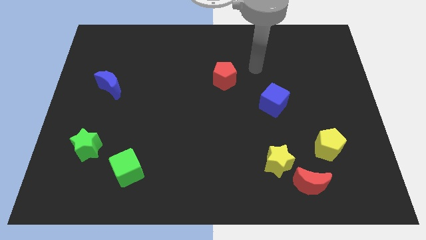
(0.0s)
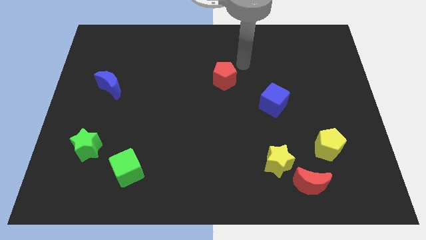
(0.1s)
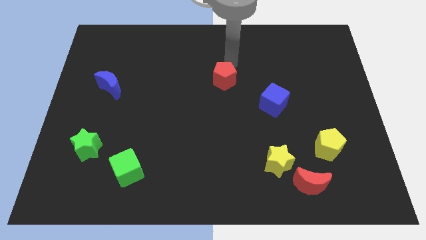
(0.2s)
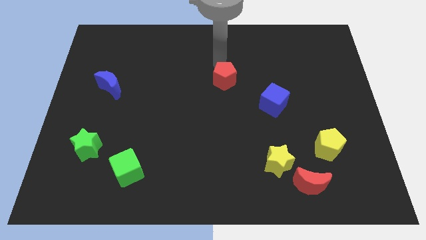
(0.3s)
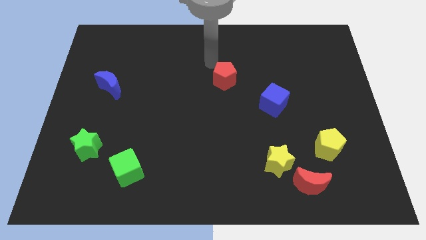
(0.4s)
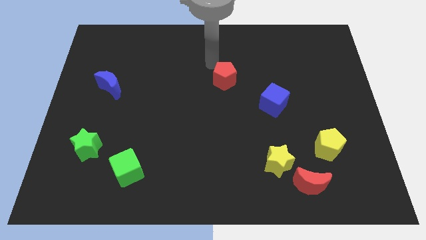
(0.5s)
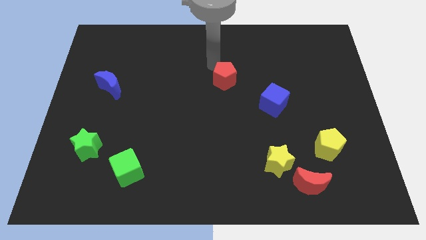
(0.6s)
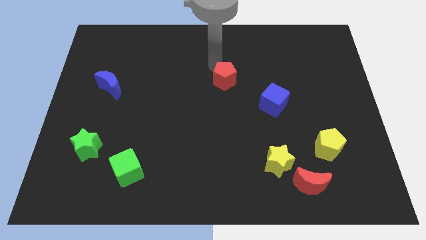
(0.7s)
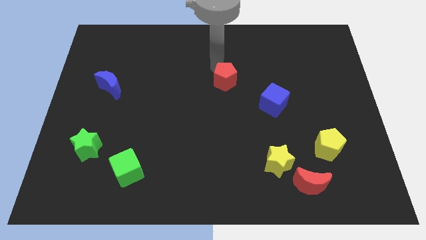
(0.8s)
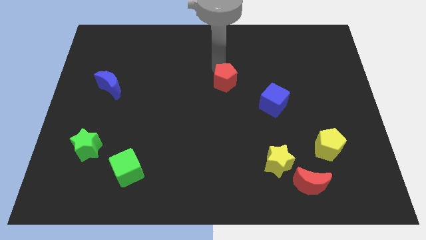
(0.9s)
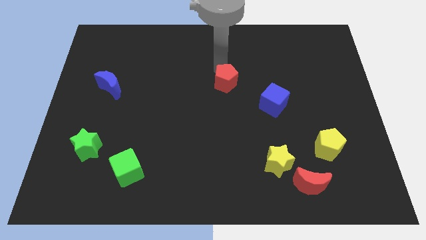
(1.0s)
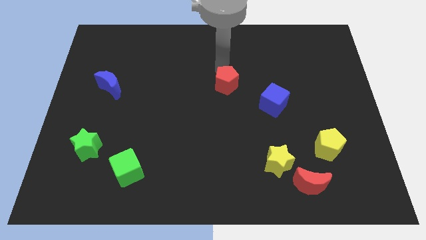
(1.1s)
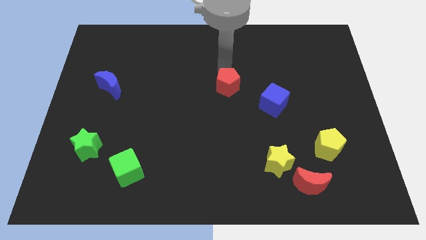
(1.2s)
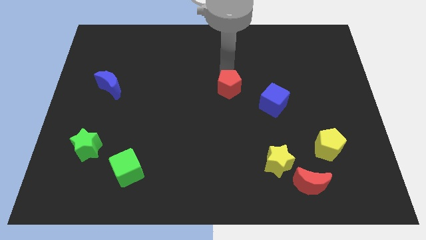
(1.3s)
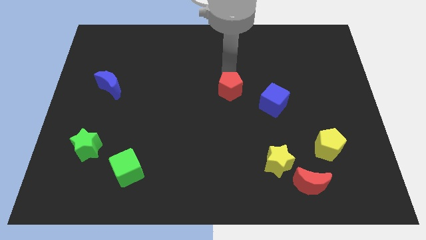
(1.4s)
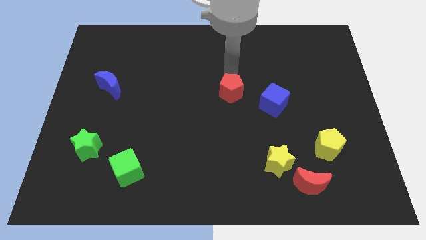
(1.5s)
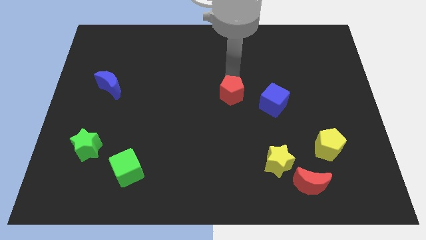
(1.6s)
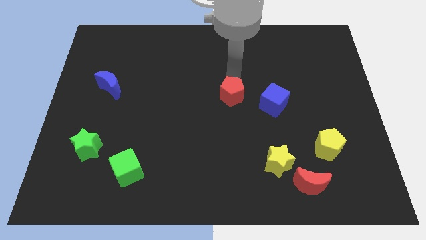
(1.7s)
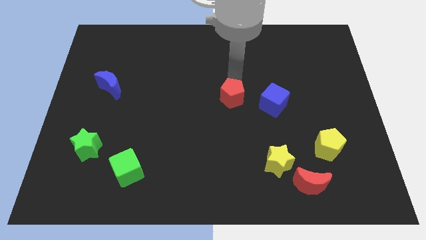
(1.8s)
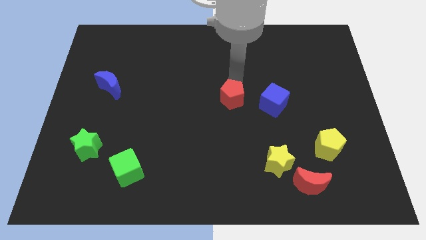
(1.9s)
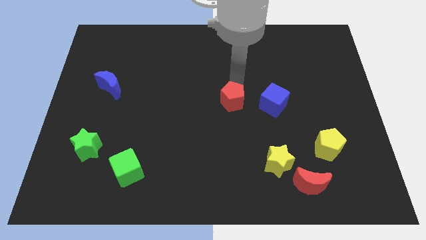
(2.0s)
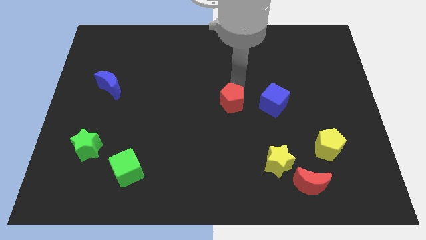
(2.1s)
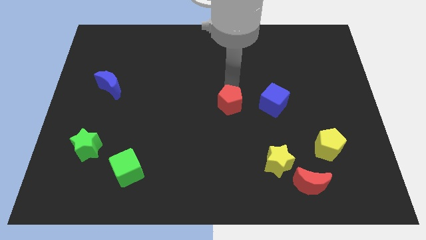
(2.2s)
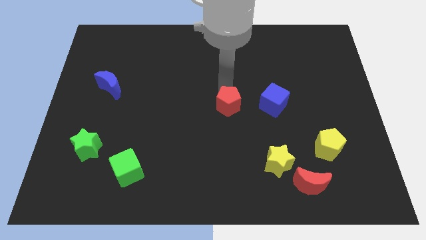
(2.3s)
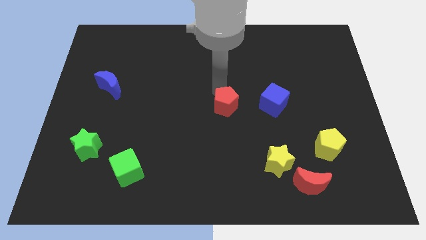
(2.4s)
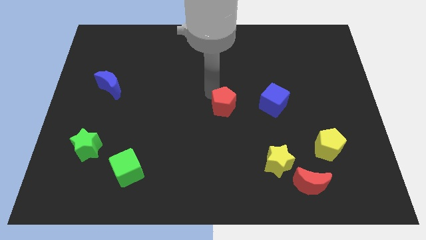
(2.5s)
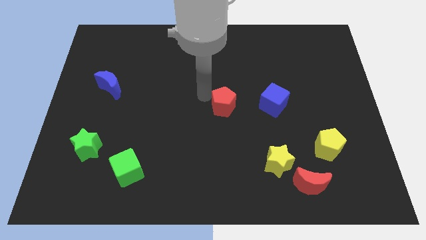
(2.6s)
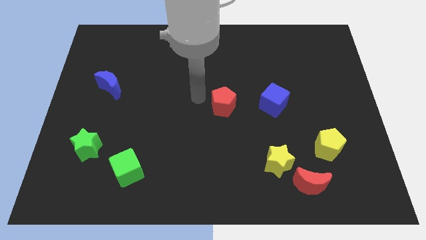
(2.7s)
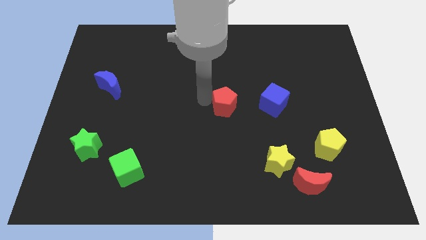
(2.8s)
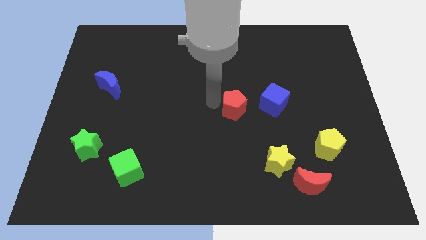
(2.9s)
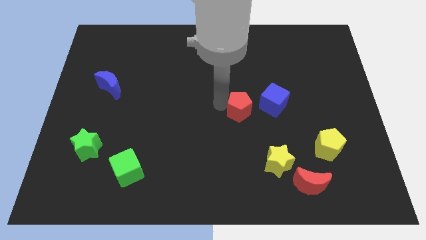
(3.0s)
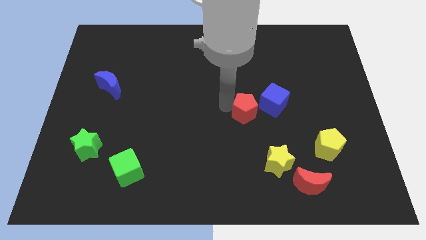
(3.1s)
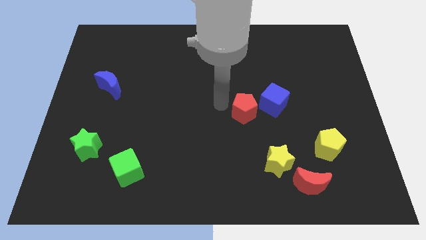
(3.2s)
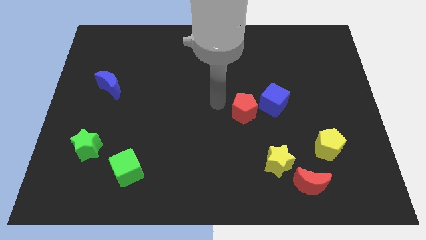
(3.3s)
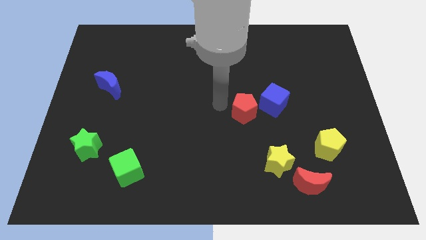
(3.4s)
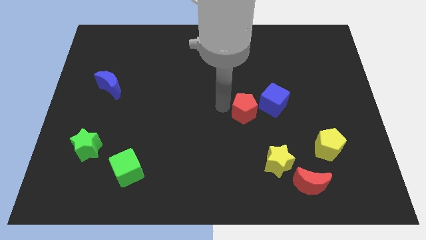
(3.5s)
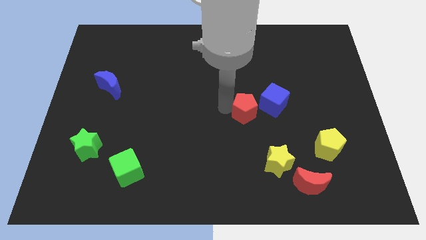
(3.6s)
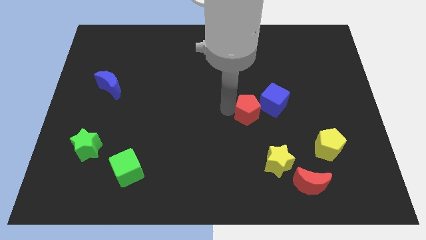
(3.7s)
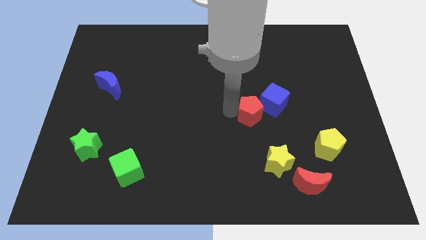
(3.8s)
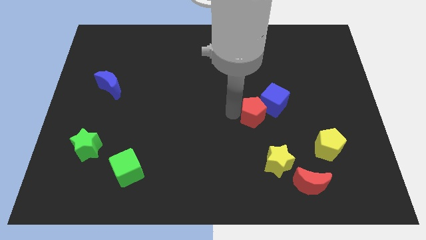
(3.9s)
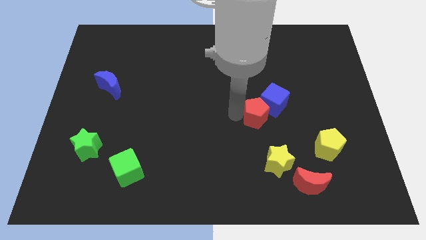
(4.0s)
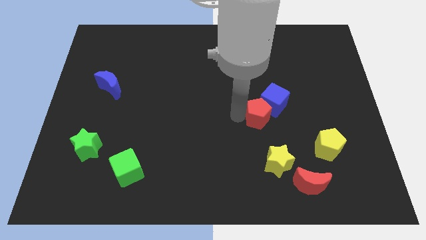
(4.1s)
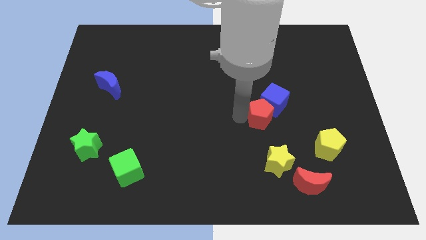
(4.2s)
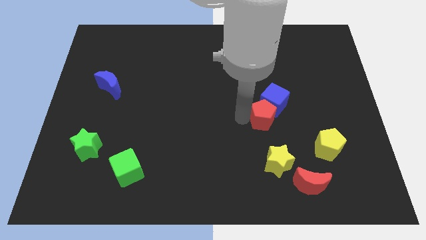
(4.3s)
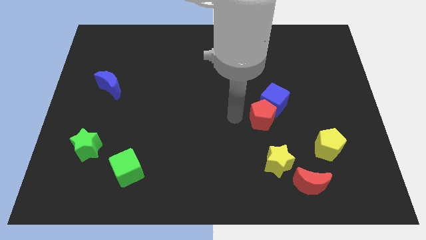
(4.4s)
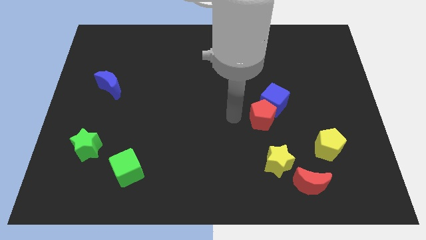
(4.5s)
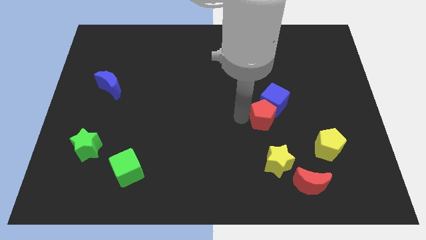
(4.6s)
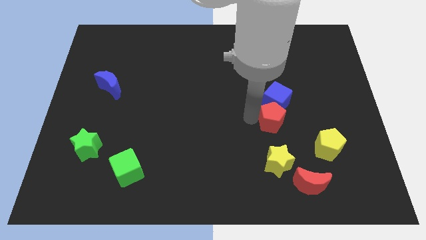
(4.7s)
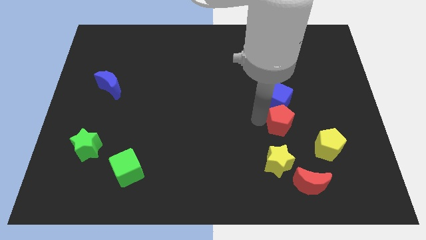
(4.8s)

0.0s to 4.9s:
push the red pentagon diagonally down and to the right of the blue cube

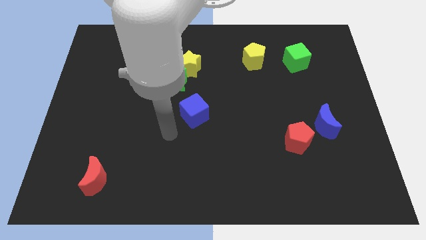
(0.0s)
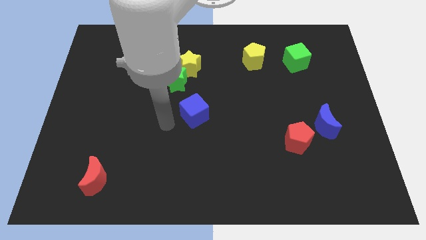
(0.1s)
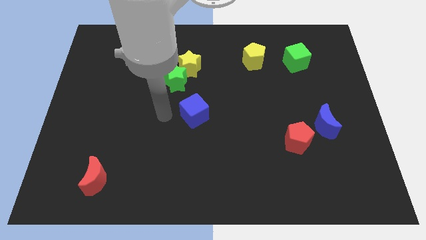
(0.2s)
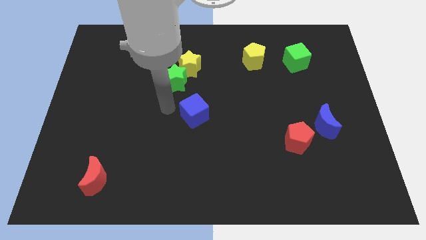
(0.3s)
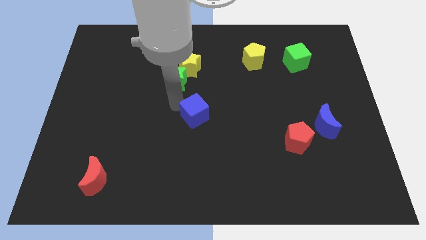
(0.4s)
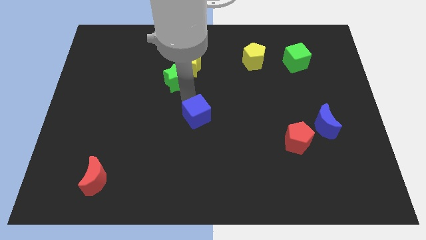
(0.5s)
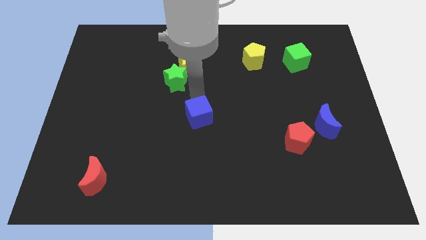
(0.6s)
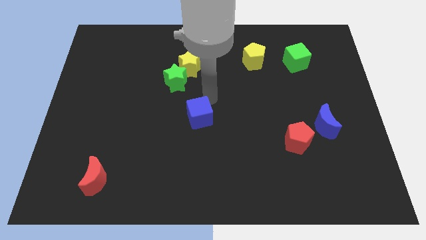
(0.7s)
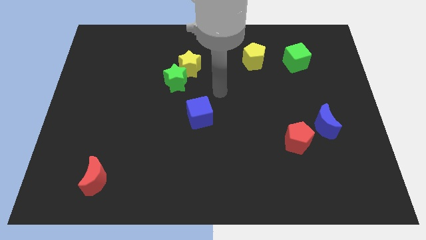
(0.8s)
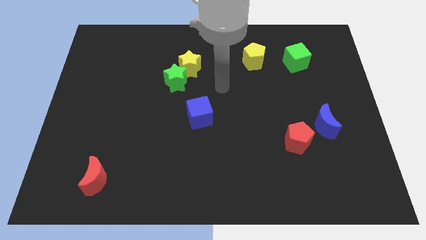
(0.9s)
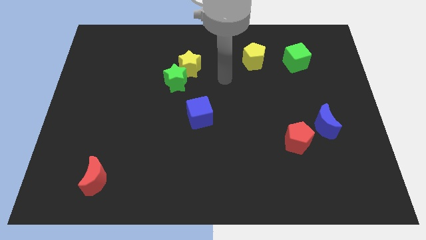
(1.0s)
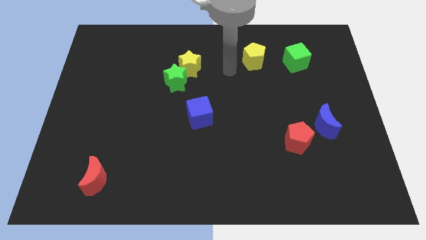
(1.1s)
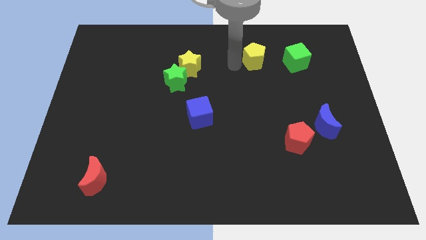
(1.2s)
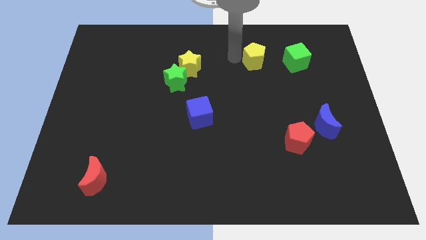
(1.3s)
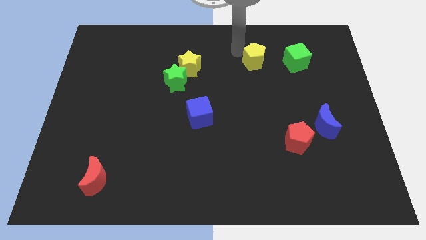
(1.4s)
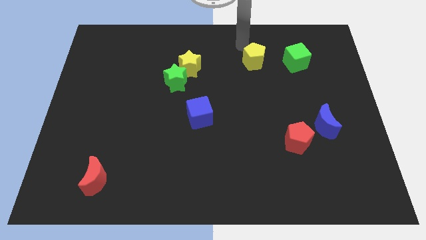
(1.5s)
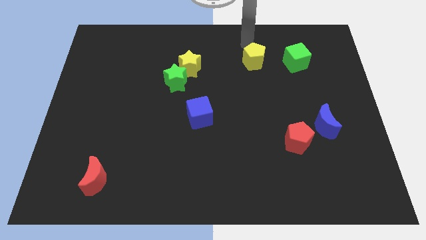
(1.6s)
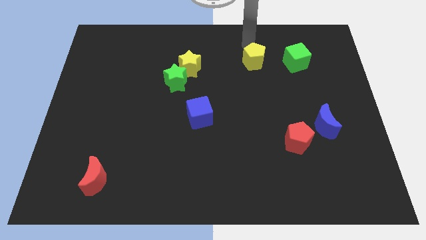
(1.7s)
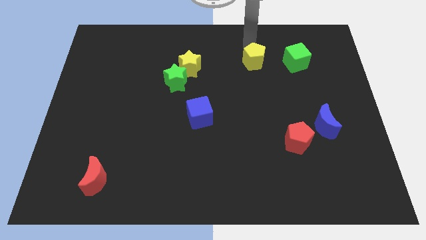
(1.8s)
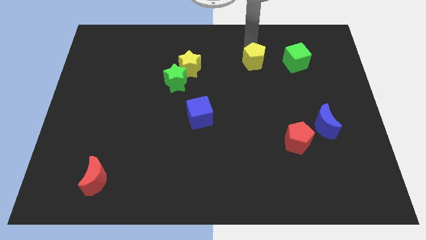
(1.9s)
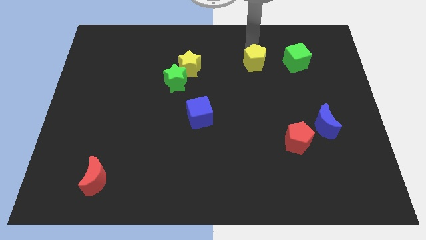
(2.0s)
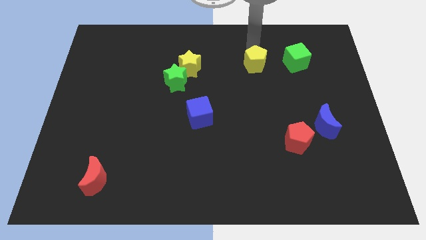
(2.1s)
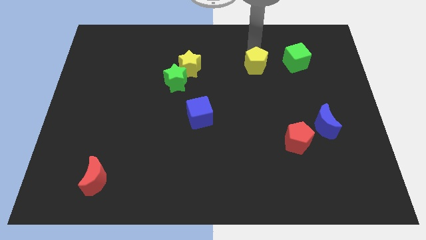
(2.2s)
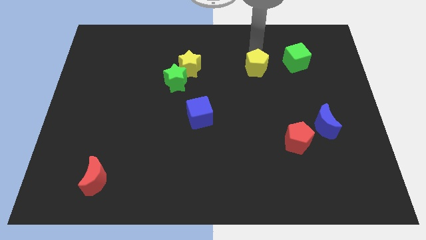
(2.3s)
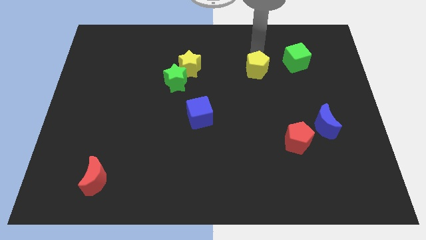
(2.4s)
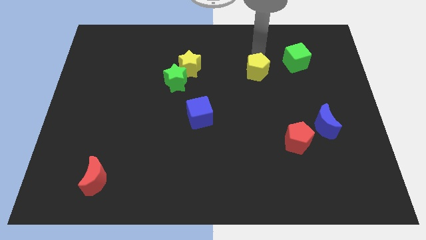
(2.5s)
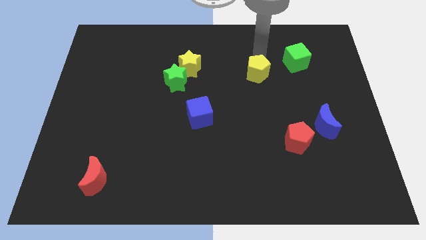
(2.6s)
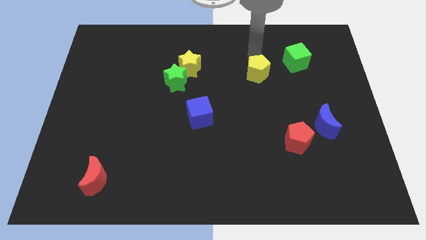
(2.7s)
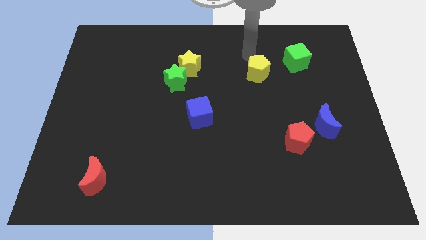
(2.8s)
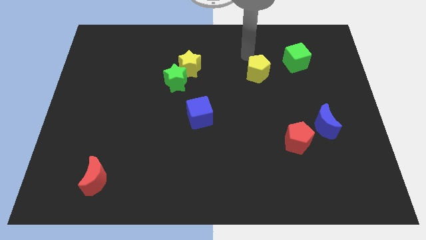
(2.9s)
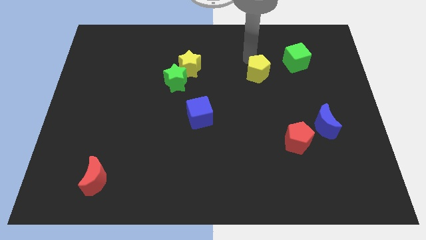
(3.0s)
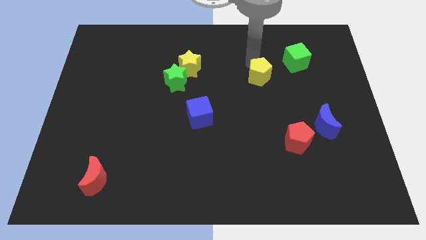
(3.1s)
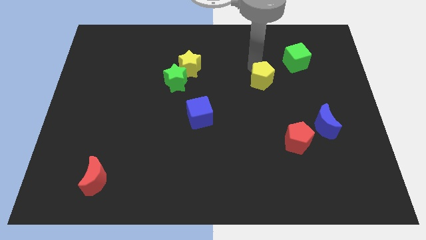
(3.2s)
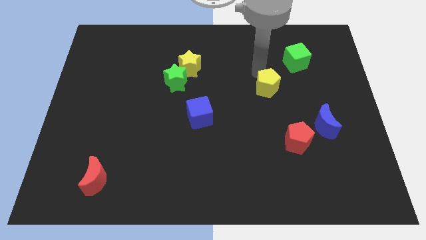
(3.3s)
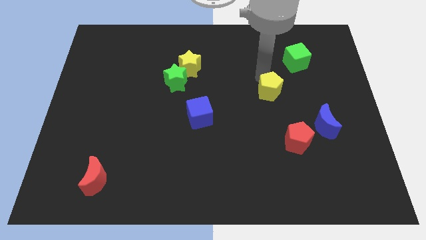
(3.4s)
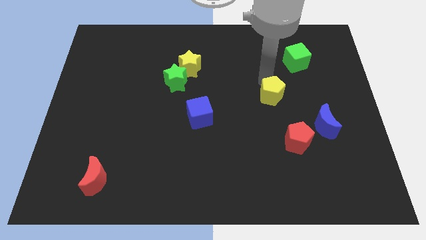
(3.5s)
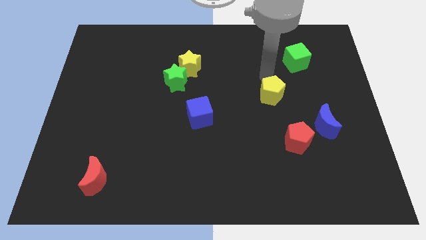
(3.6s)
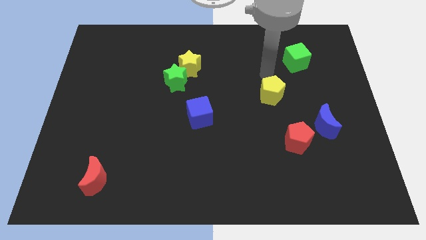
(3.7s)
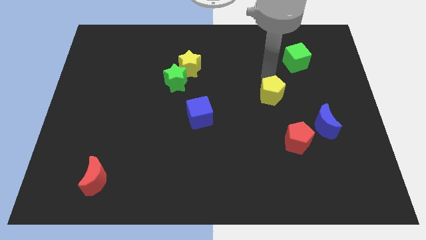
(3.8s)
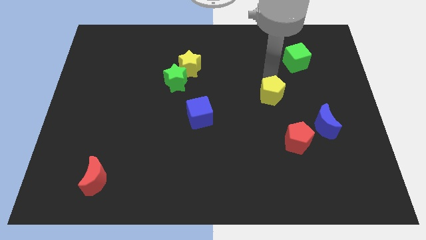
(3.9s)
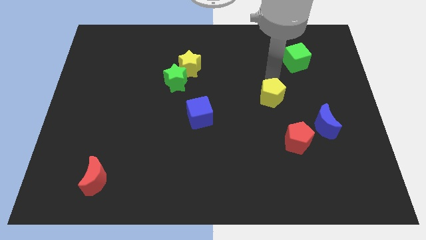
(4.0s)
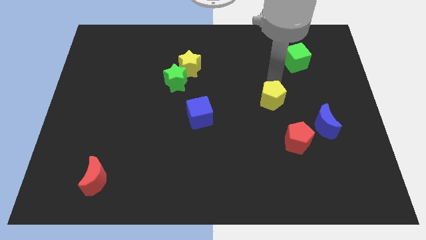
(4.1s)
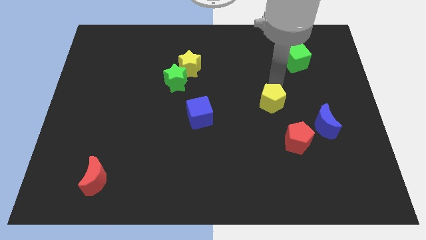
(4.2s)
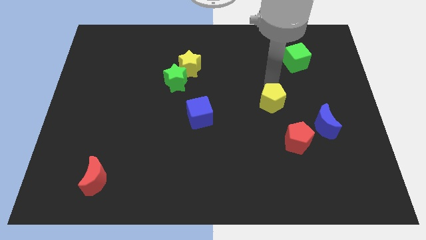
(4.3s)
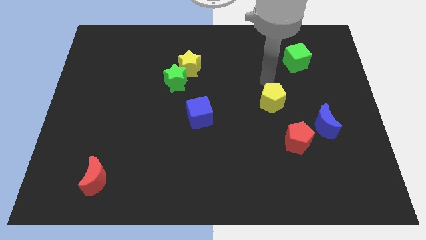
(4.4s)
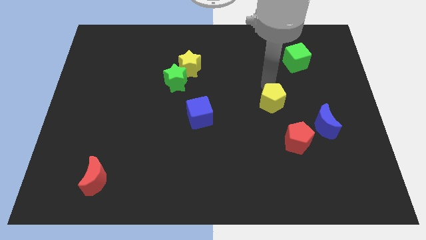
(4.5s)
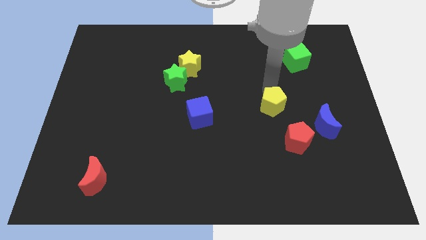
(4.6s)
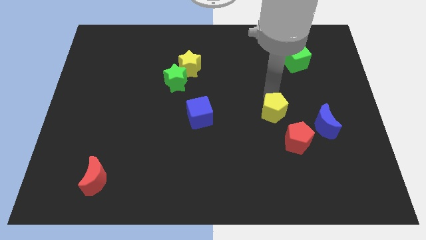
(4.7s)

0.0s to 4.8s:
slide the yellow pentagon to the left of the blue moon
